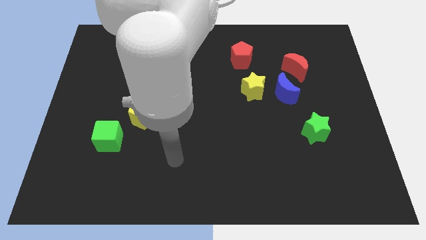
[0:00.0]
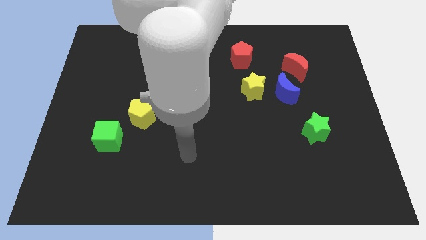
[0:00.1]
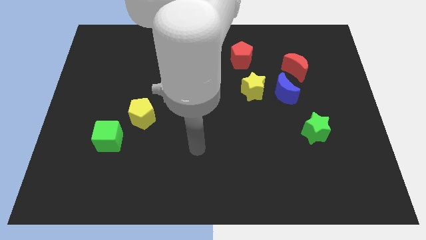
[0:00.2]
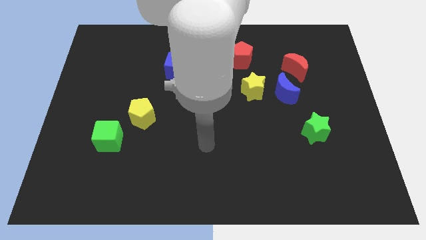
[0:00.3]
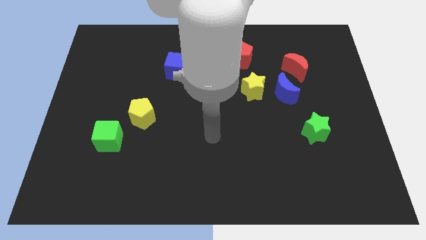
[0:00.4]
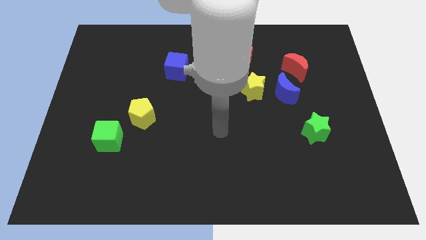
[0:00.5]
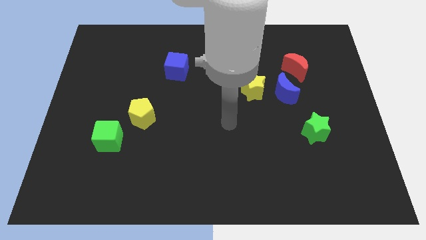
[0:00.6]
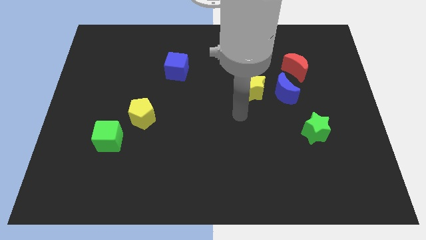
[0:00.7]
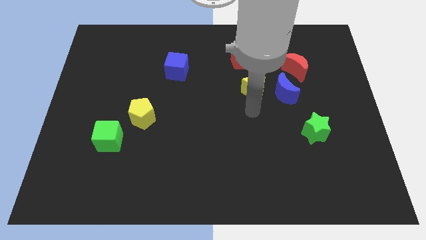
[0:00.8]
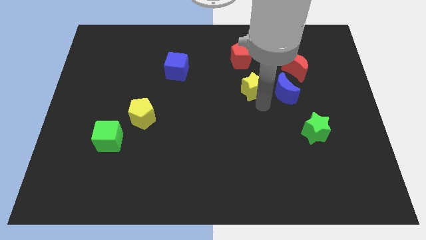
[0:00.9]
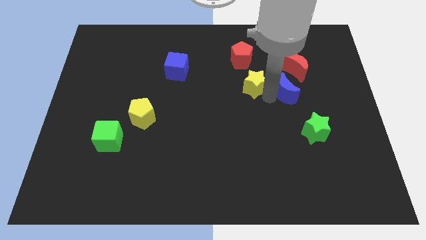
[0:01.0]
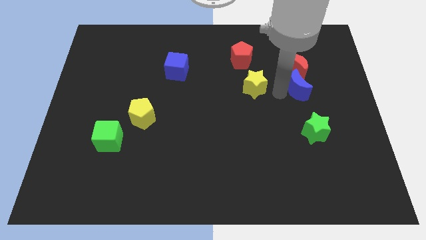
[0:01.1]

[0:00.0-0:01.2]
separate the yellow star from the blue moon

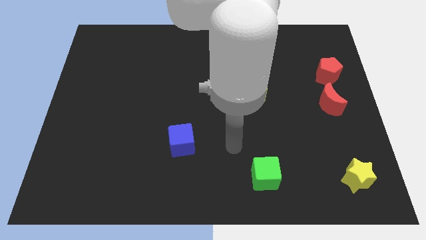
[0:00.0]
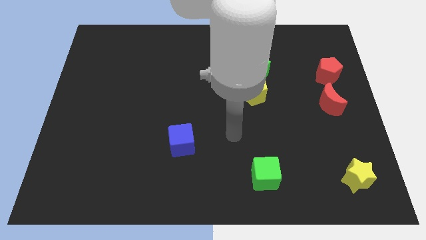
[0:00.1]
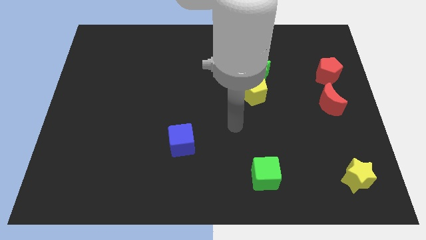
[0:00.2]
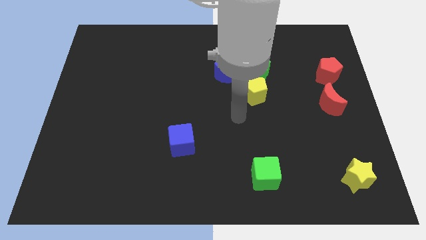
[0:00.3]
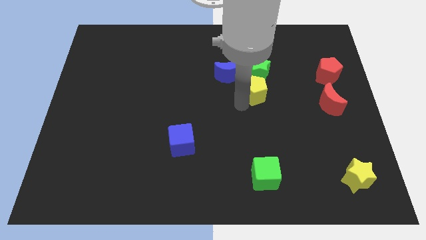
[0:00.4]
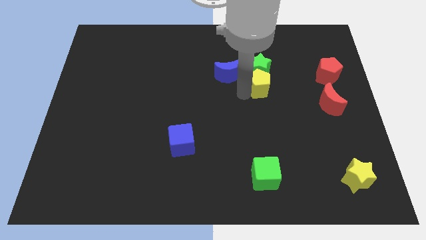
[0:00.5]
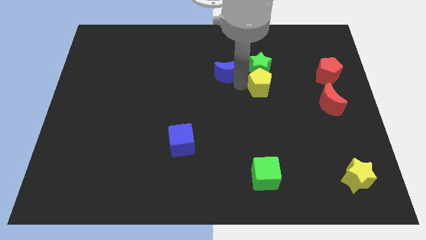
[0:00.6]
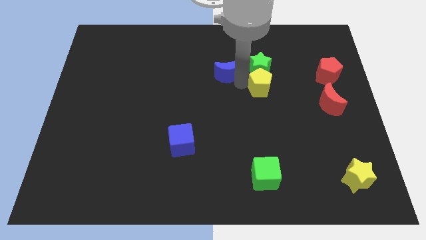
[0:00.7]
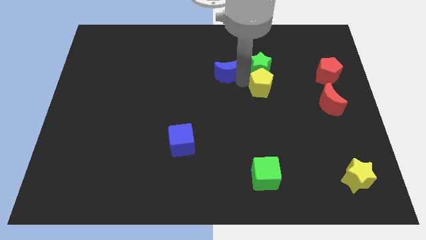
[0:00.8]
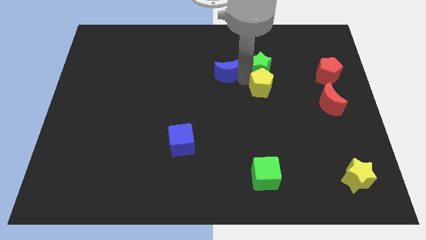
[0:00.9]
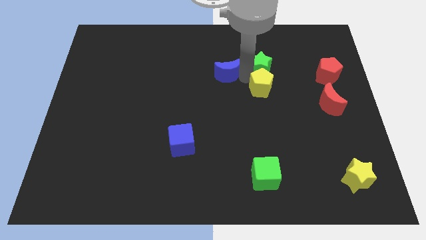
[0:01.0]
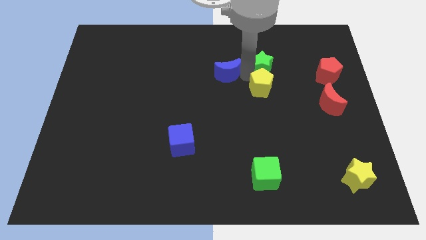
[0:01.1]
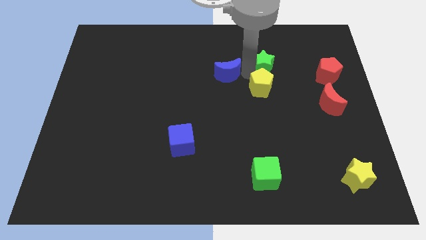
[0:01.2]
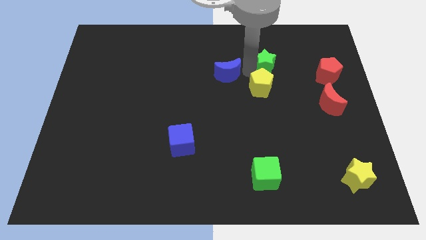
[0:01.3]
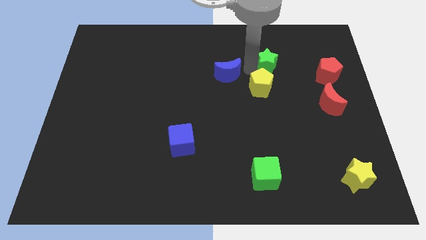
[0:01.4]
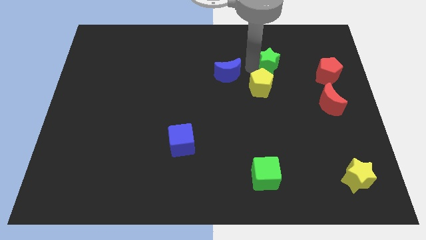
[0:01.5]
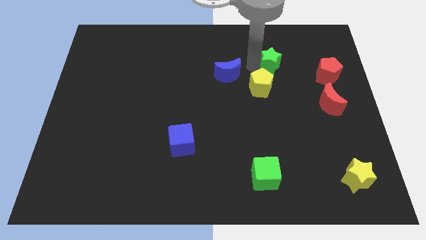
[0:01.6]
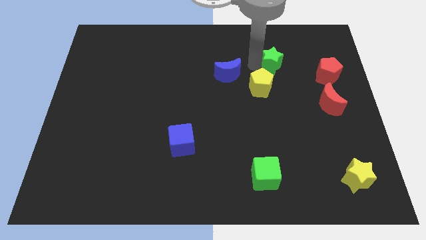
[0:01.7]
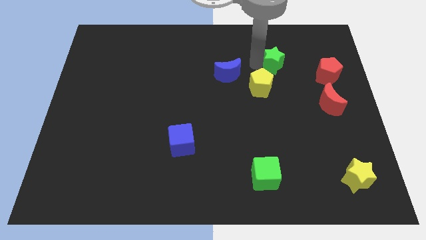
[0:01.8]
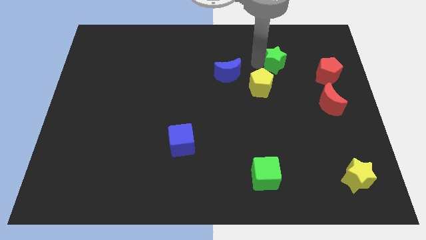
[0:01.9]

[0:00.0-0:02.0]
separate the green star from the yellow pentagon and blue moon

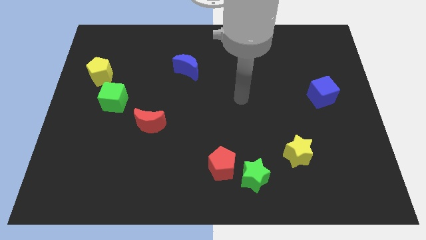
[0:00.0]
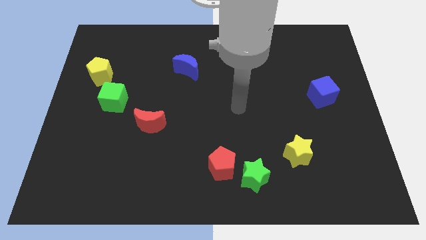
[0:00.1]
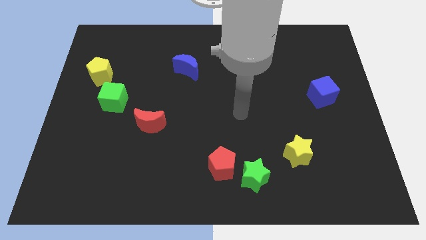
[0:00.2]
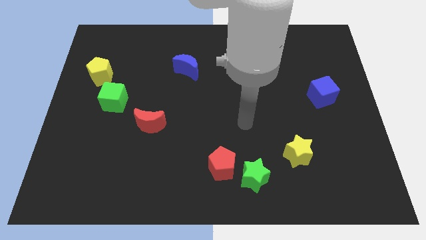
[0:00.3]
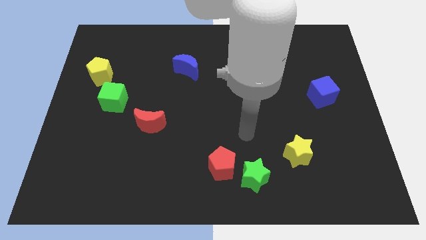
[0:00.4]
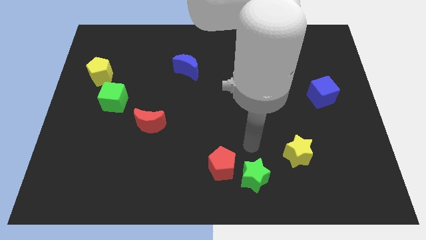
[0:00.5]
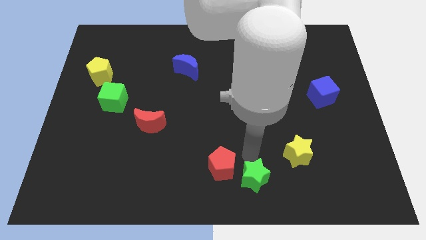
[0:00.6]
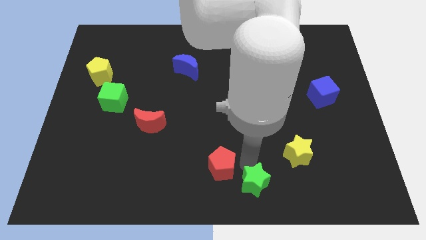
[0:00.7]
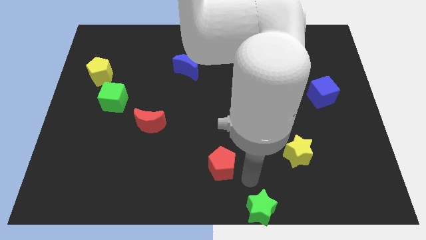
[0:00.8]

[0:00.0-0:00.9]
separate the red pentagon from the green star

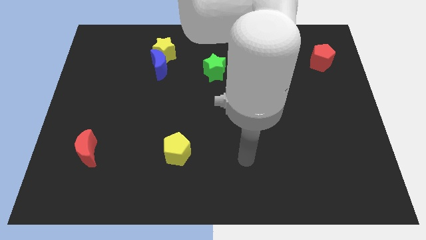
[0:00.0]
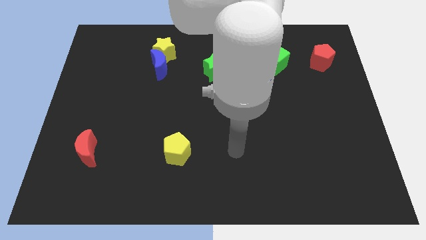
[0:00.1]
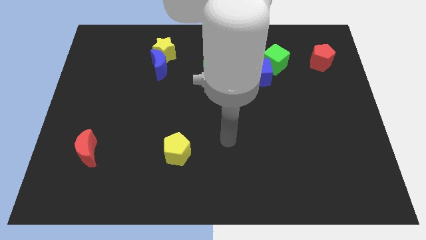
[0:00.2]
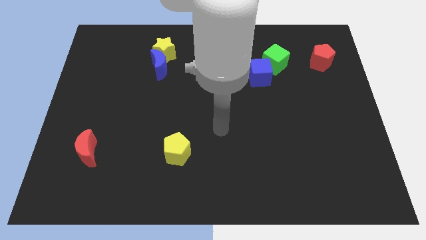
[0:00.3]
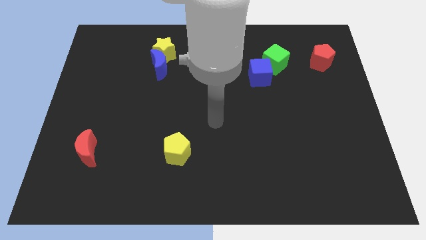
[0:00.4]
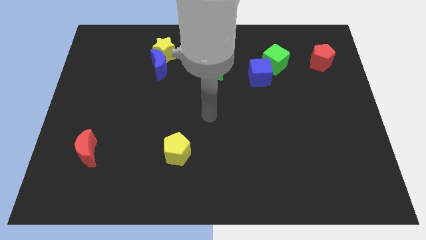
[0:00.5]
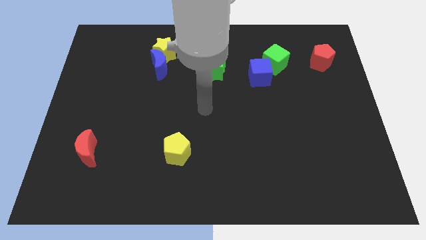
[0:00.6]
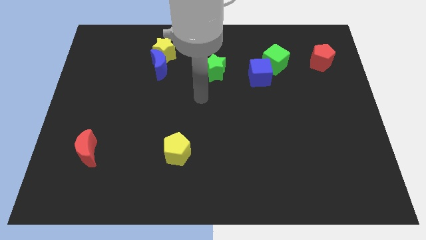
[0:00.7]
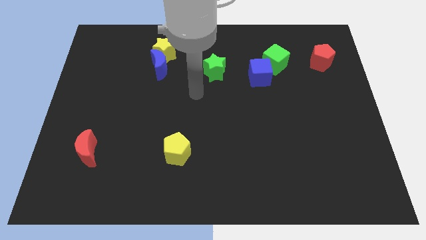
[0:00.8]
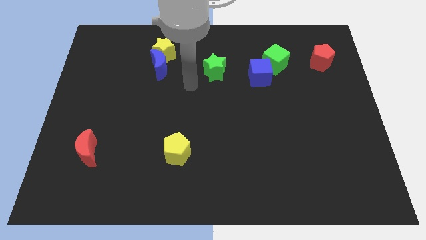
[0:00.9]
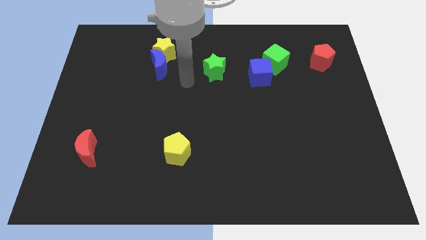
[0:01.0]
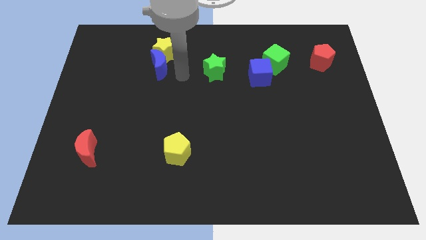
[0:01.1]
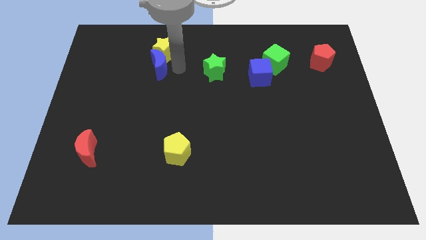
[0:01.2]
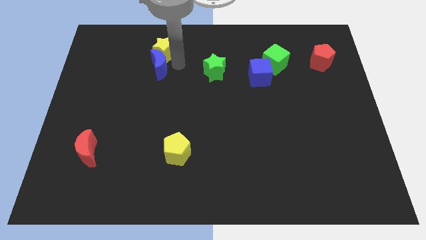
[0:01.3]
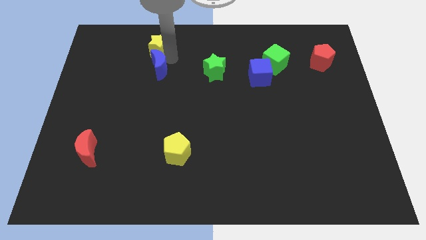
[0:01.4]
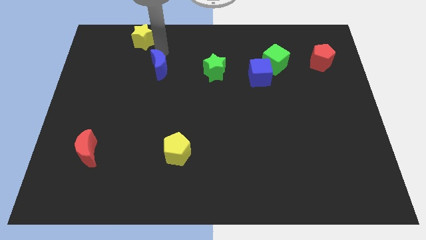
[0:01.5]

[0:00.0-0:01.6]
move the blue moon away from the yellow star

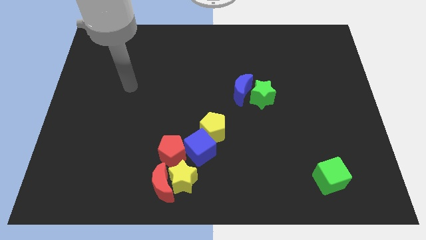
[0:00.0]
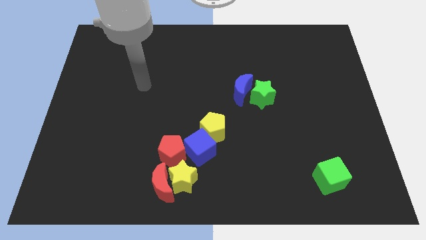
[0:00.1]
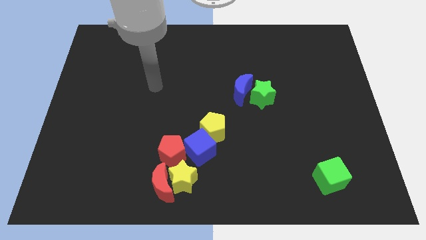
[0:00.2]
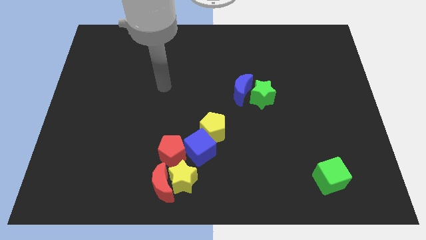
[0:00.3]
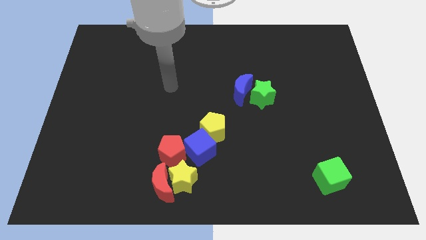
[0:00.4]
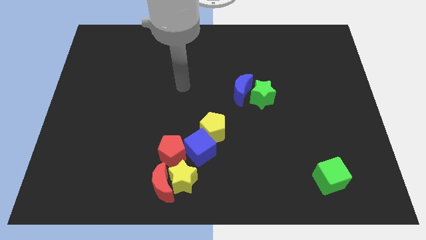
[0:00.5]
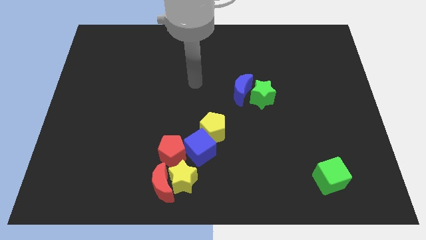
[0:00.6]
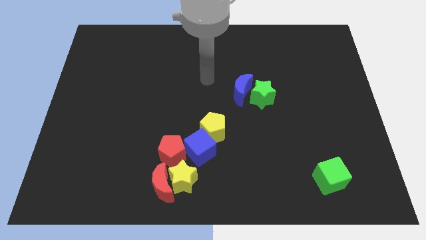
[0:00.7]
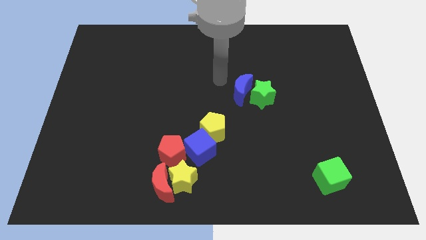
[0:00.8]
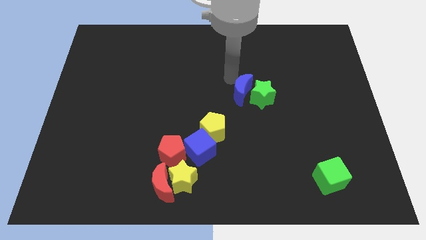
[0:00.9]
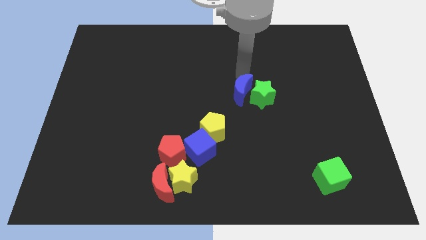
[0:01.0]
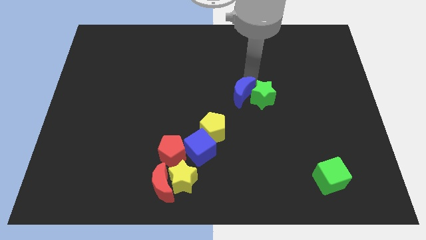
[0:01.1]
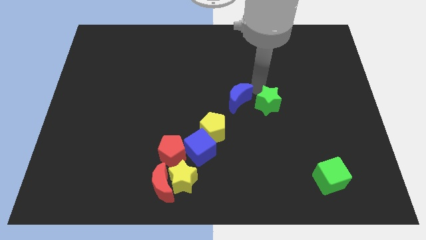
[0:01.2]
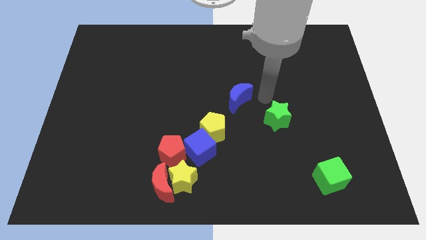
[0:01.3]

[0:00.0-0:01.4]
pull the blue moon apart from the green star

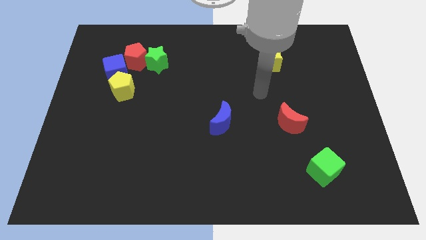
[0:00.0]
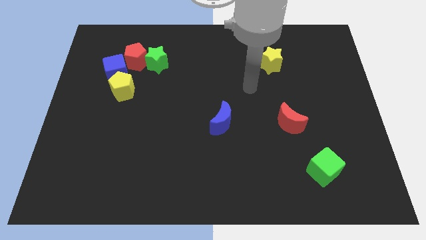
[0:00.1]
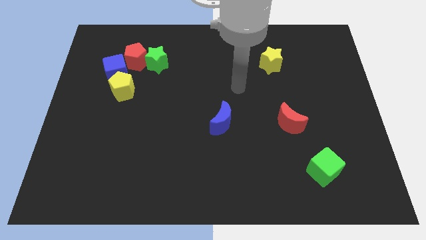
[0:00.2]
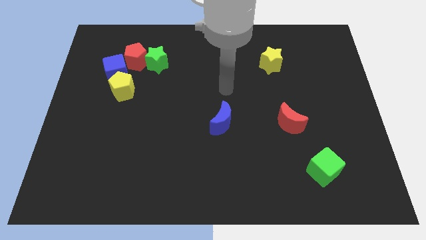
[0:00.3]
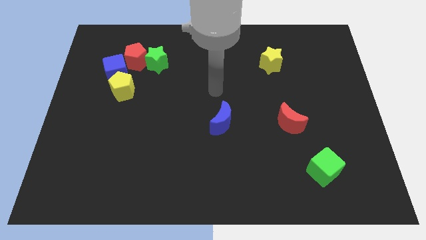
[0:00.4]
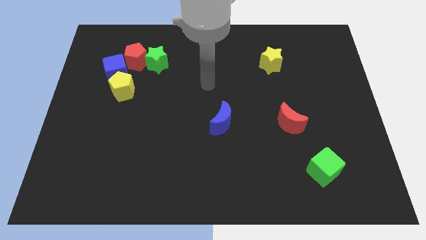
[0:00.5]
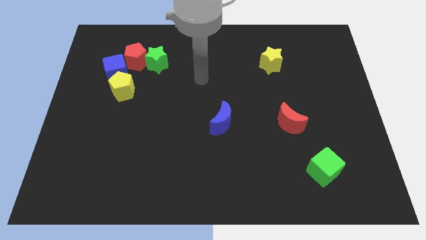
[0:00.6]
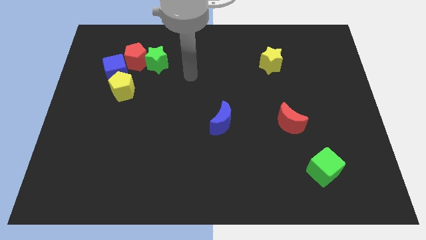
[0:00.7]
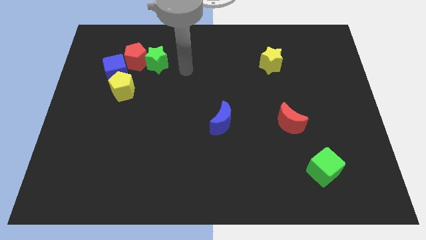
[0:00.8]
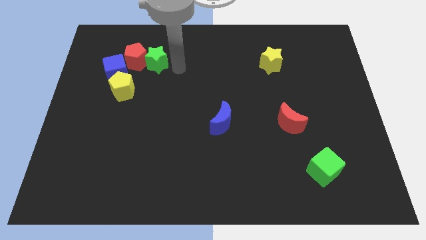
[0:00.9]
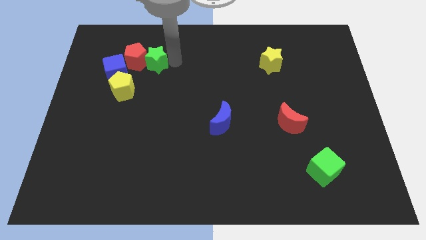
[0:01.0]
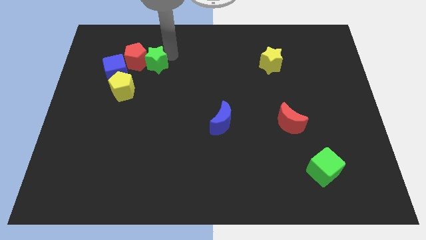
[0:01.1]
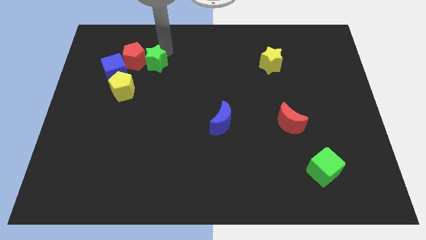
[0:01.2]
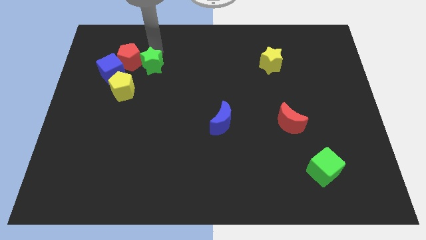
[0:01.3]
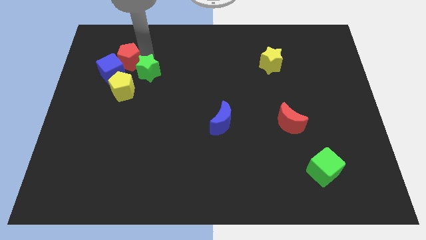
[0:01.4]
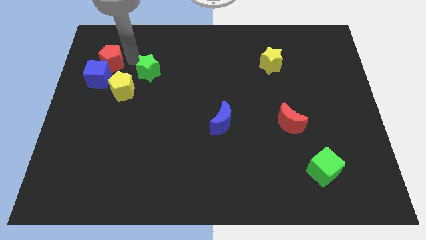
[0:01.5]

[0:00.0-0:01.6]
pull the green star apart from the red pentagon

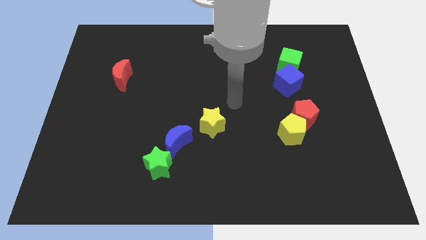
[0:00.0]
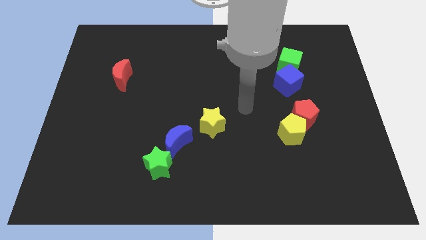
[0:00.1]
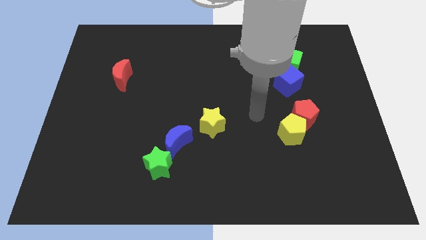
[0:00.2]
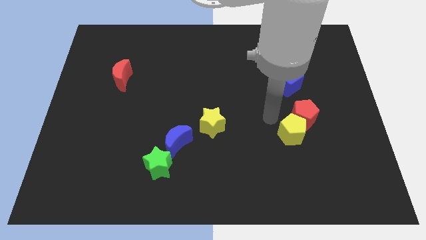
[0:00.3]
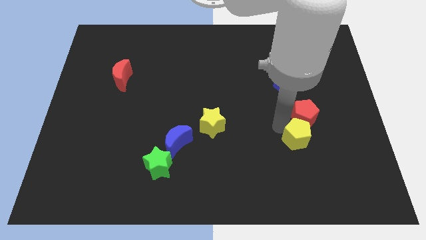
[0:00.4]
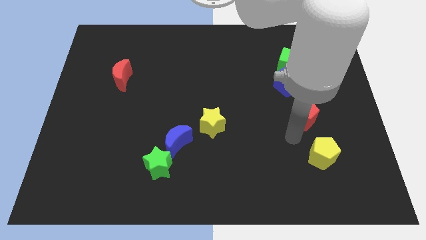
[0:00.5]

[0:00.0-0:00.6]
move the red pentagon away from the yellow pentagon
